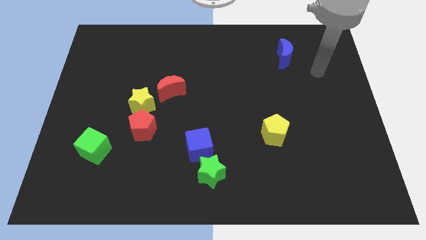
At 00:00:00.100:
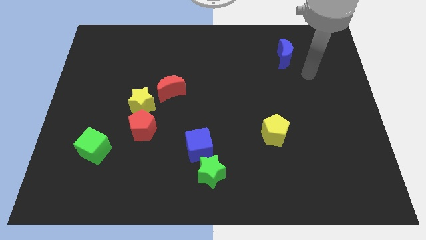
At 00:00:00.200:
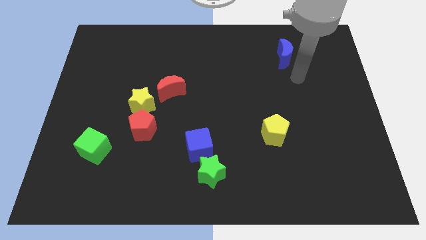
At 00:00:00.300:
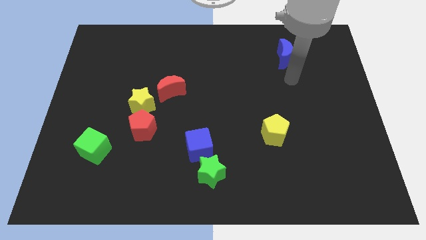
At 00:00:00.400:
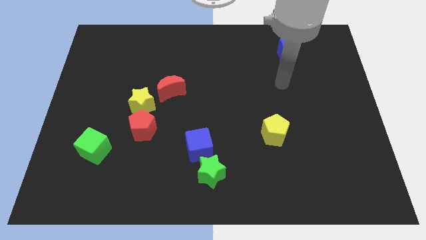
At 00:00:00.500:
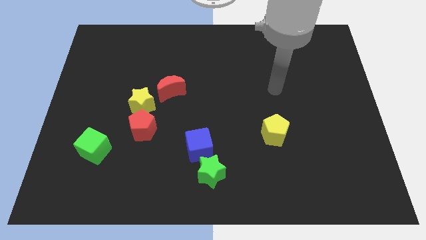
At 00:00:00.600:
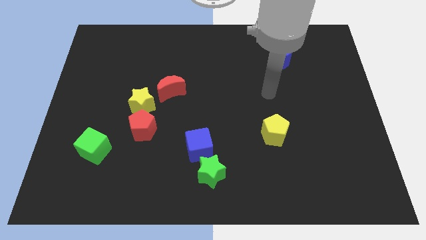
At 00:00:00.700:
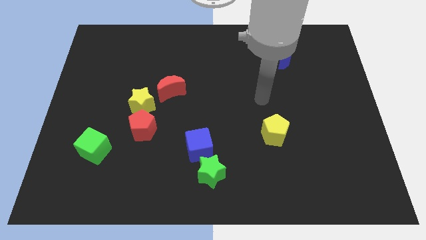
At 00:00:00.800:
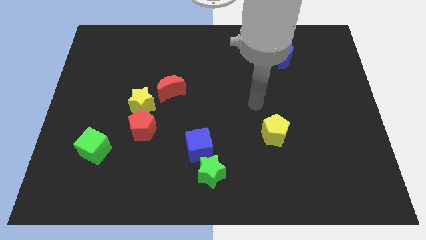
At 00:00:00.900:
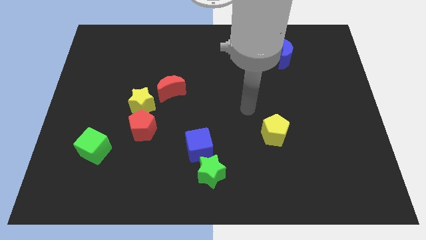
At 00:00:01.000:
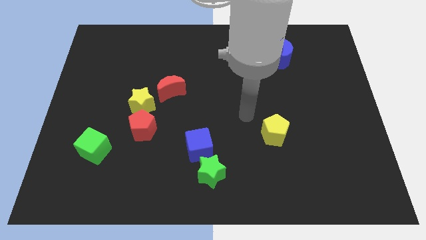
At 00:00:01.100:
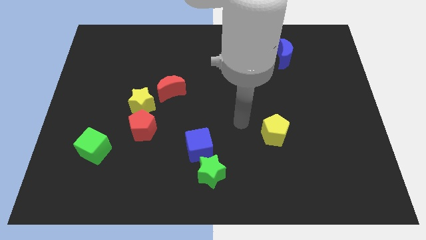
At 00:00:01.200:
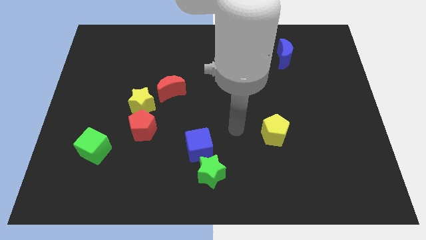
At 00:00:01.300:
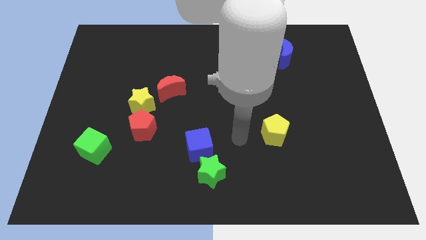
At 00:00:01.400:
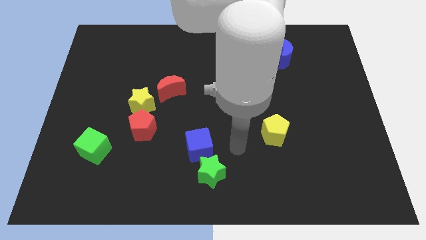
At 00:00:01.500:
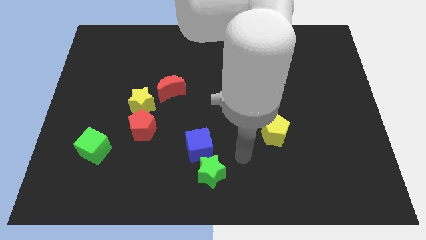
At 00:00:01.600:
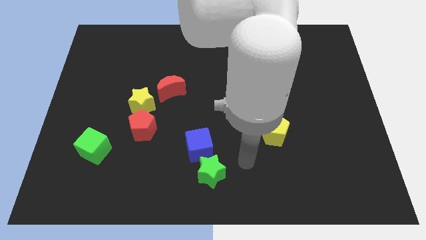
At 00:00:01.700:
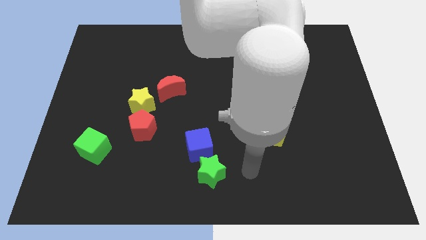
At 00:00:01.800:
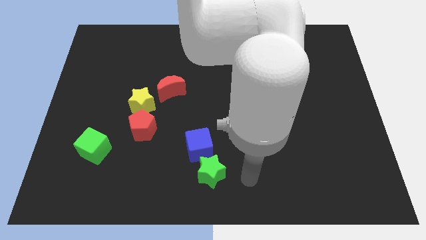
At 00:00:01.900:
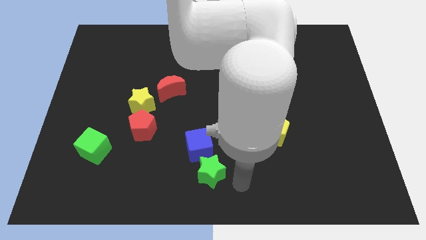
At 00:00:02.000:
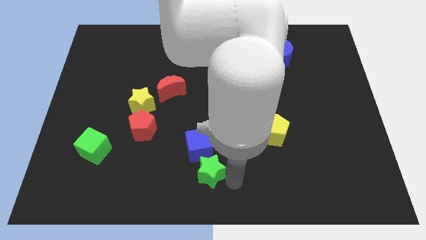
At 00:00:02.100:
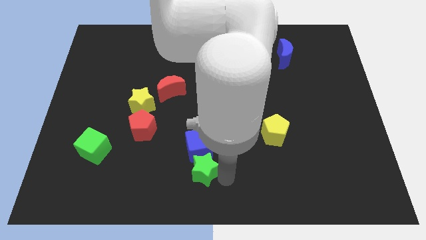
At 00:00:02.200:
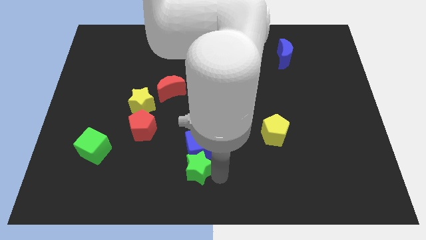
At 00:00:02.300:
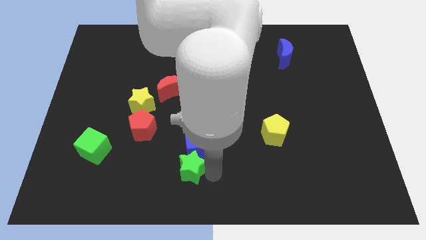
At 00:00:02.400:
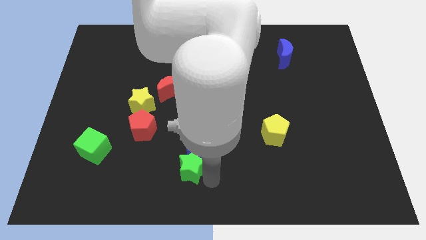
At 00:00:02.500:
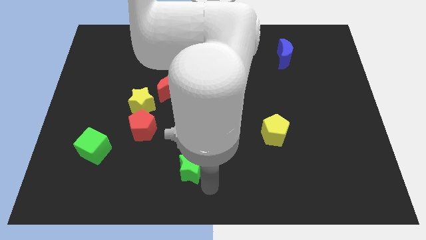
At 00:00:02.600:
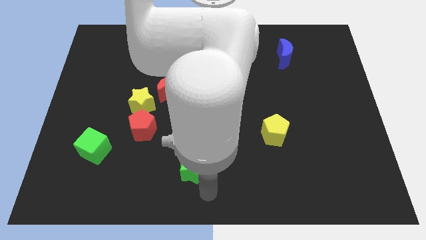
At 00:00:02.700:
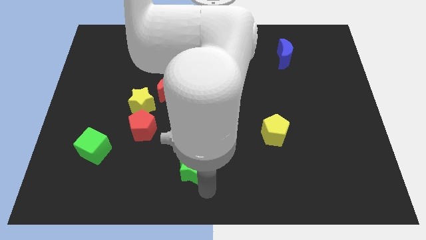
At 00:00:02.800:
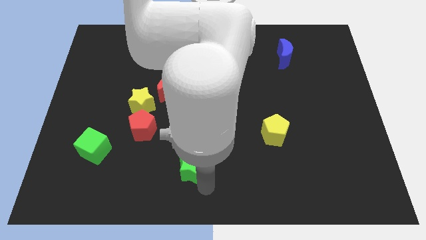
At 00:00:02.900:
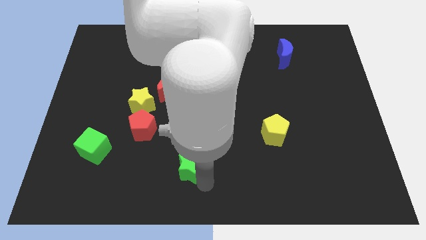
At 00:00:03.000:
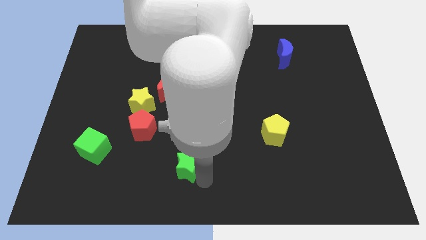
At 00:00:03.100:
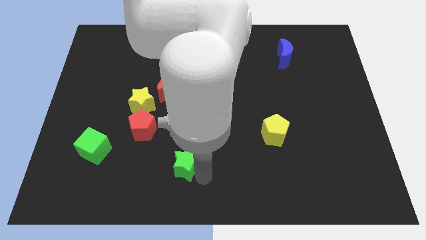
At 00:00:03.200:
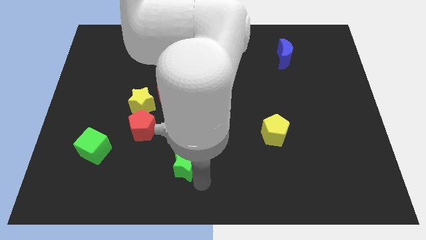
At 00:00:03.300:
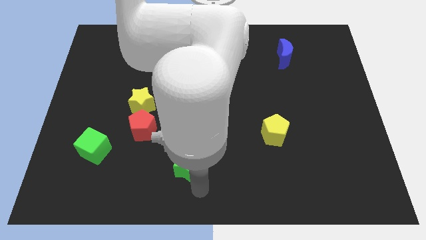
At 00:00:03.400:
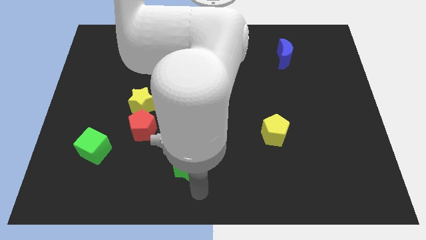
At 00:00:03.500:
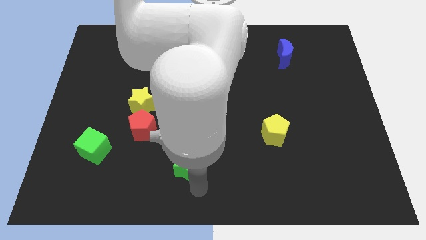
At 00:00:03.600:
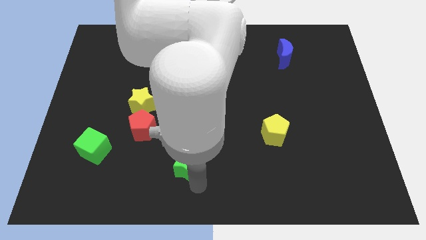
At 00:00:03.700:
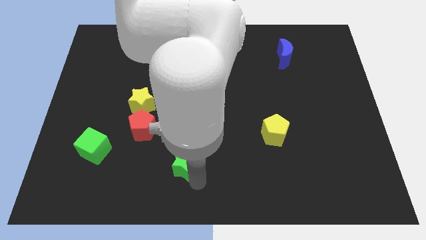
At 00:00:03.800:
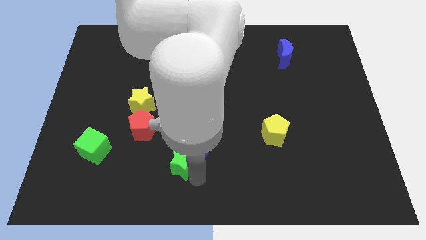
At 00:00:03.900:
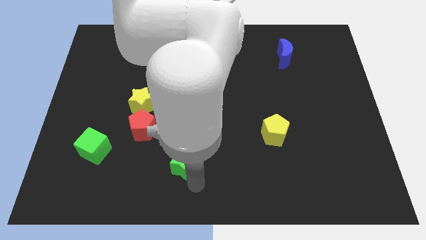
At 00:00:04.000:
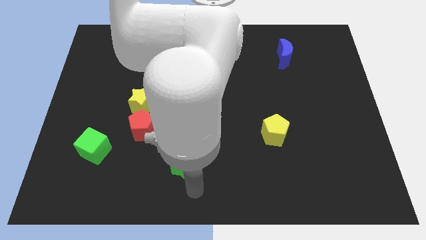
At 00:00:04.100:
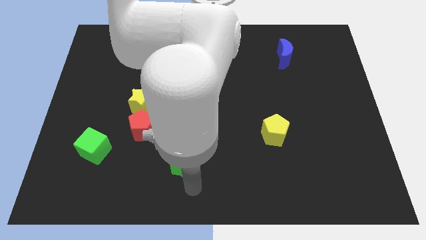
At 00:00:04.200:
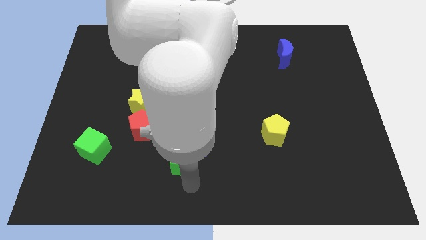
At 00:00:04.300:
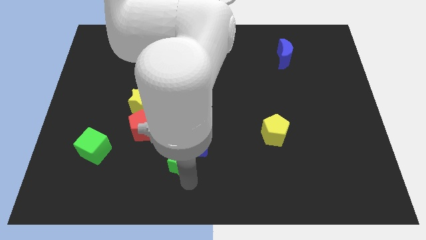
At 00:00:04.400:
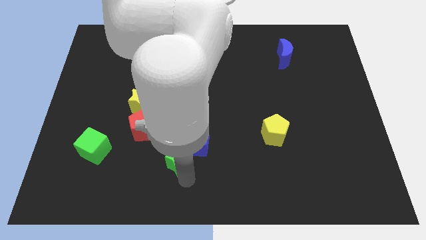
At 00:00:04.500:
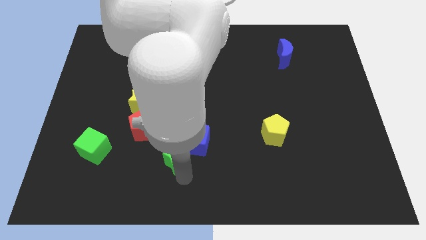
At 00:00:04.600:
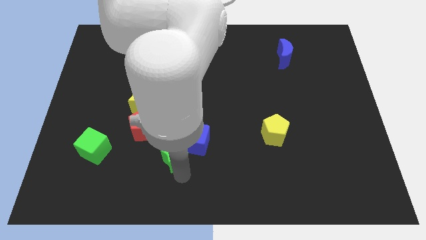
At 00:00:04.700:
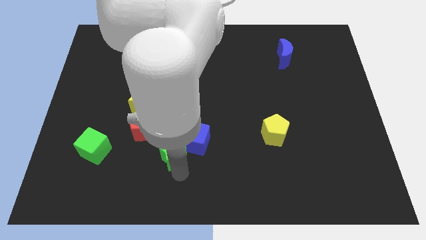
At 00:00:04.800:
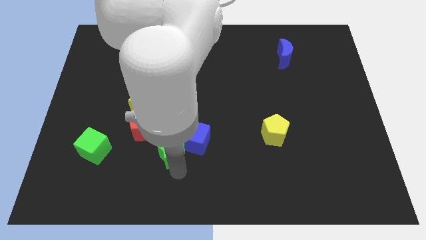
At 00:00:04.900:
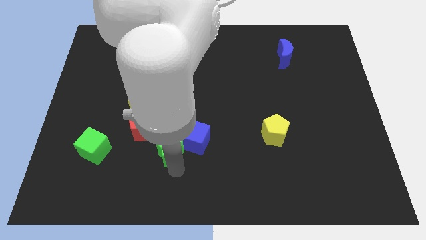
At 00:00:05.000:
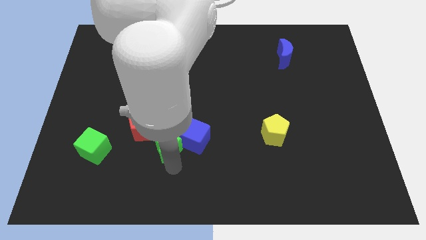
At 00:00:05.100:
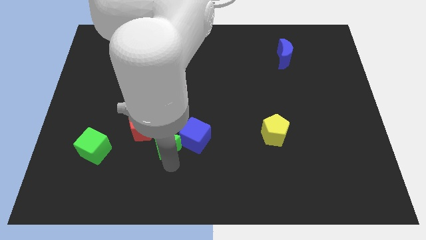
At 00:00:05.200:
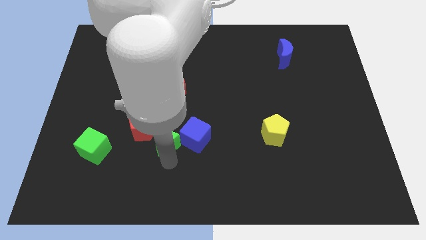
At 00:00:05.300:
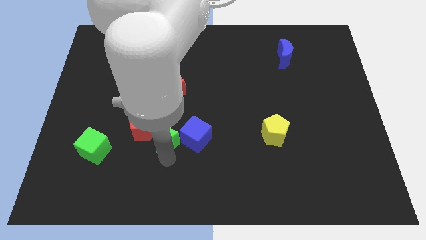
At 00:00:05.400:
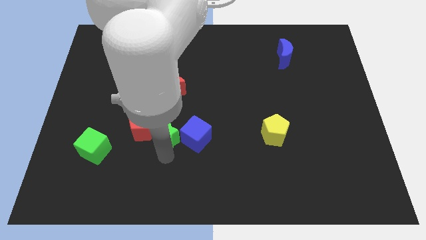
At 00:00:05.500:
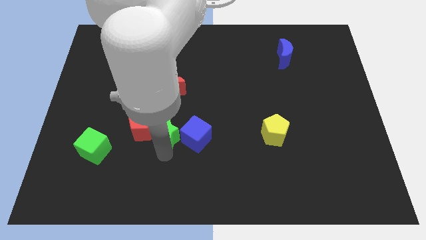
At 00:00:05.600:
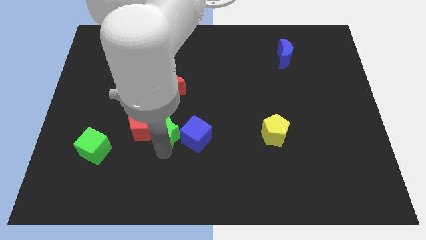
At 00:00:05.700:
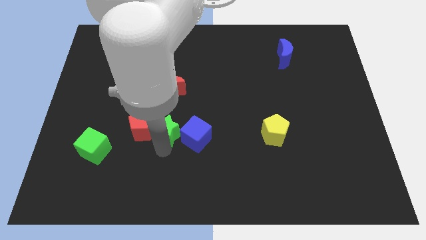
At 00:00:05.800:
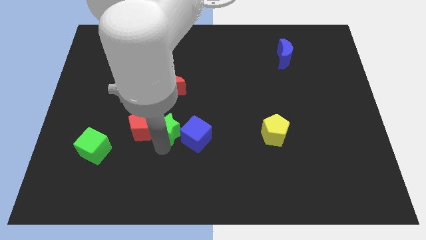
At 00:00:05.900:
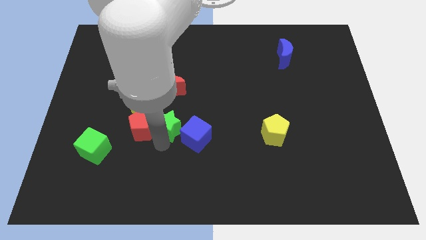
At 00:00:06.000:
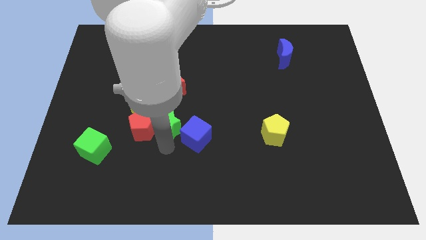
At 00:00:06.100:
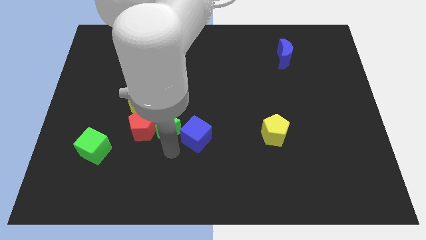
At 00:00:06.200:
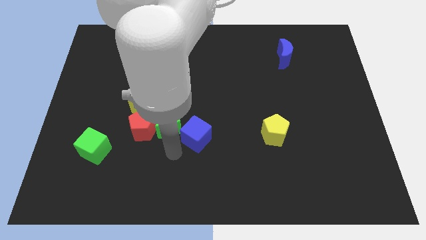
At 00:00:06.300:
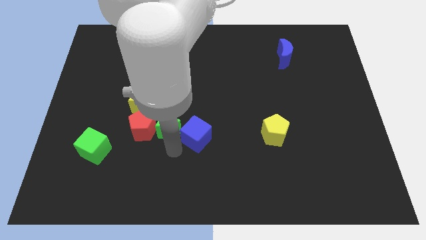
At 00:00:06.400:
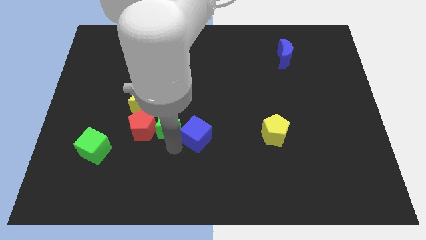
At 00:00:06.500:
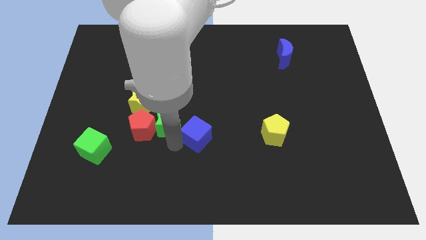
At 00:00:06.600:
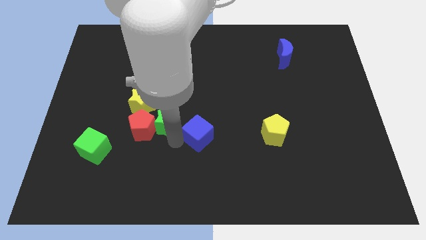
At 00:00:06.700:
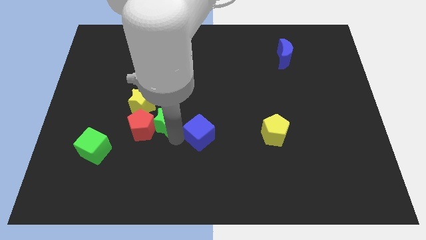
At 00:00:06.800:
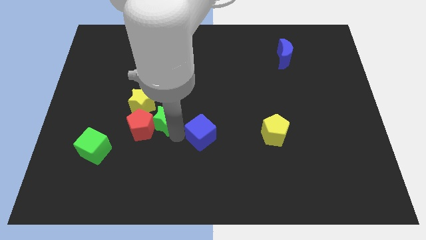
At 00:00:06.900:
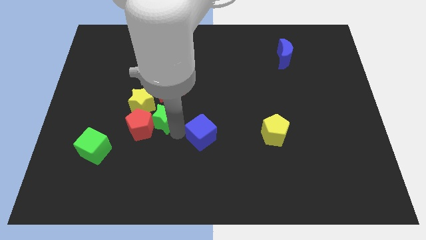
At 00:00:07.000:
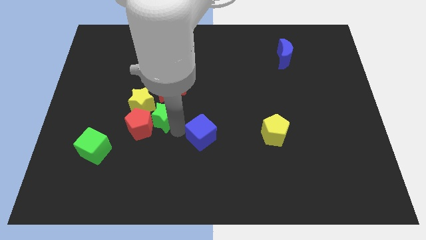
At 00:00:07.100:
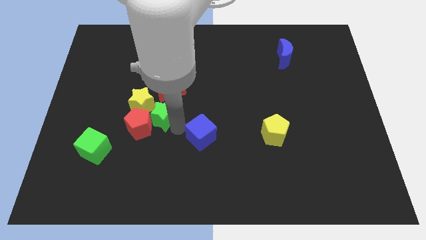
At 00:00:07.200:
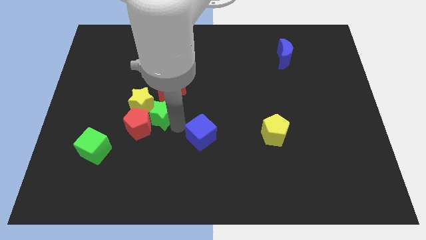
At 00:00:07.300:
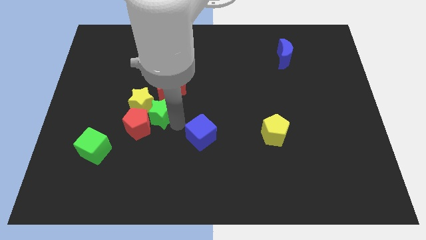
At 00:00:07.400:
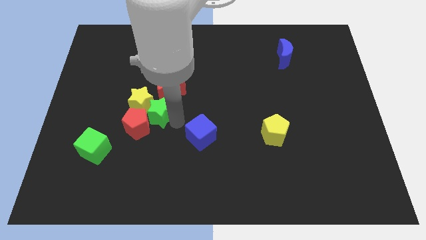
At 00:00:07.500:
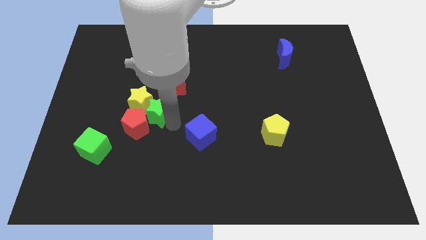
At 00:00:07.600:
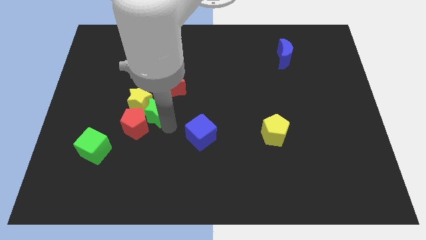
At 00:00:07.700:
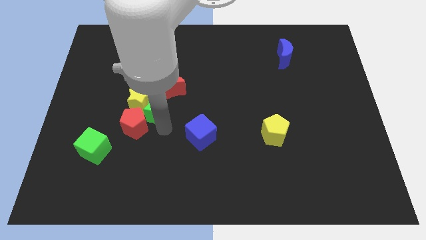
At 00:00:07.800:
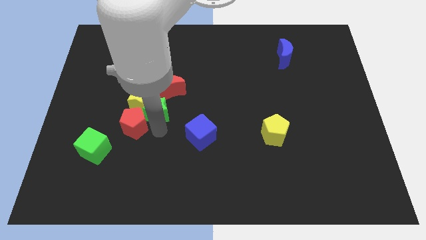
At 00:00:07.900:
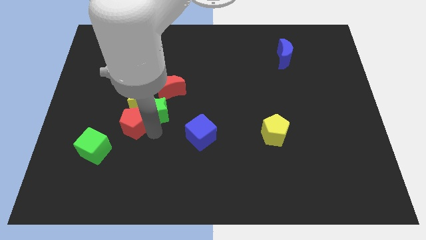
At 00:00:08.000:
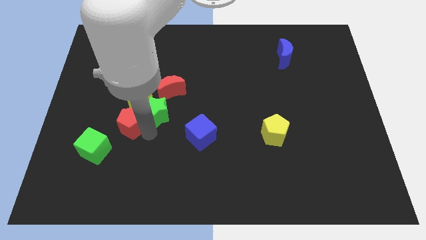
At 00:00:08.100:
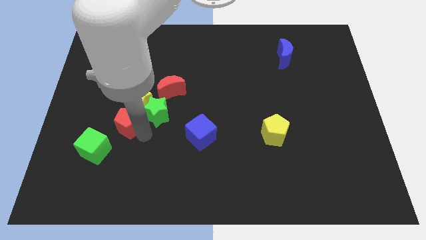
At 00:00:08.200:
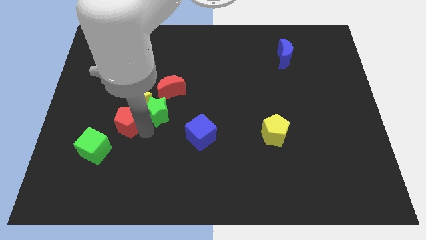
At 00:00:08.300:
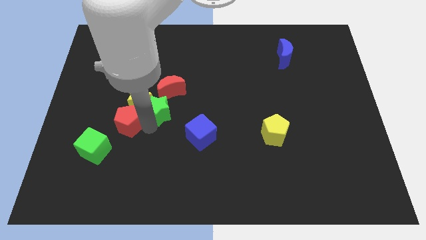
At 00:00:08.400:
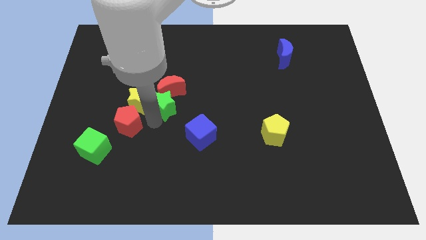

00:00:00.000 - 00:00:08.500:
slide the green star close to the red moon
